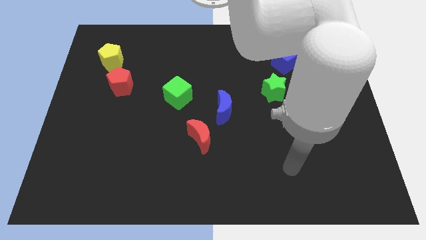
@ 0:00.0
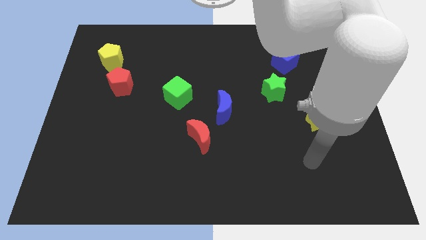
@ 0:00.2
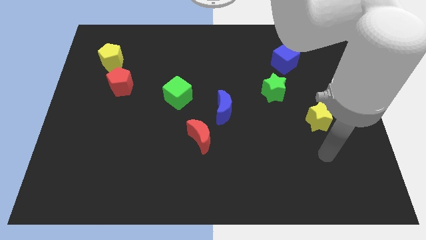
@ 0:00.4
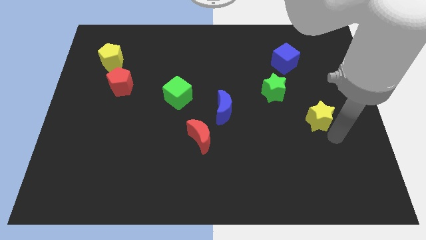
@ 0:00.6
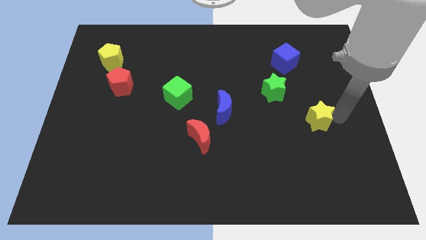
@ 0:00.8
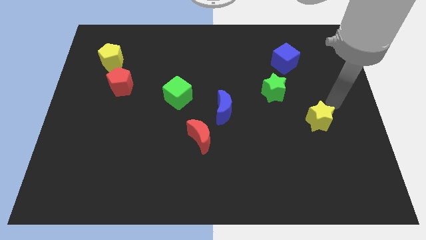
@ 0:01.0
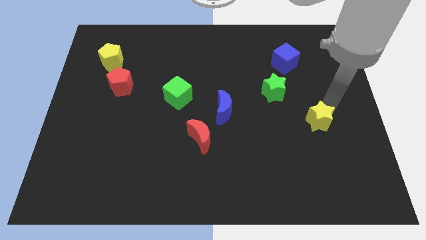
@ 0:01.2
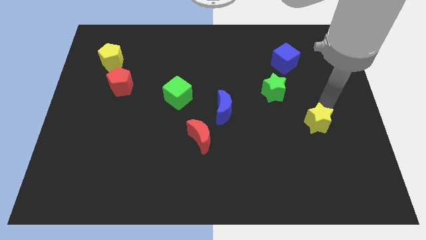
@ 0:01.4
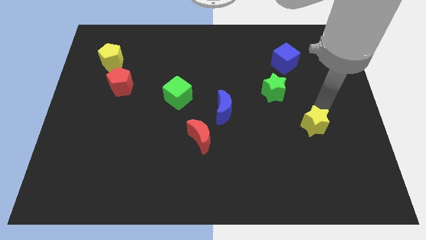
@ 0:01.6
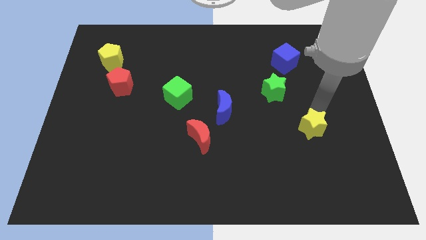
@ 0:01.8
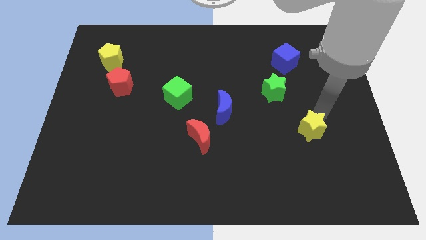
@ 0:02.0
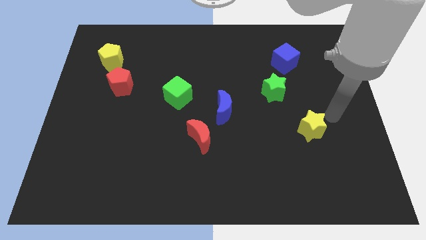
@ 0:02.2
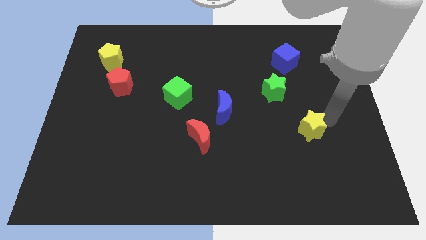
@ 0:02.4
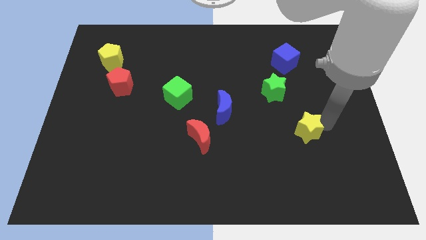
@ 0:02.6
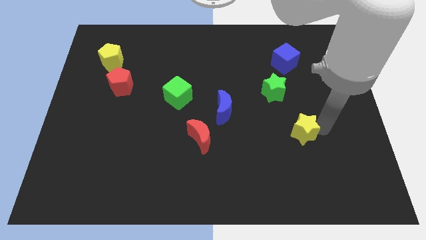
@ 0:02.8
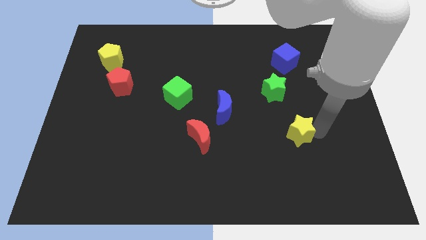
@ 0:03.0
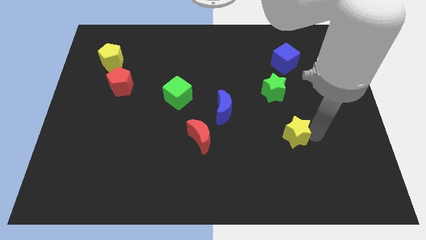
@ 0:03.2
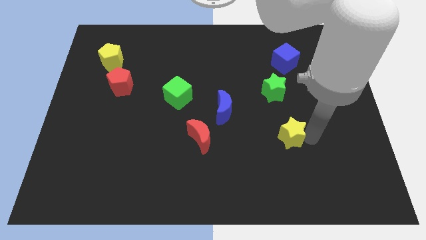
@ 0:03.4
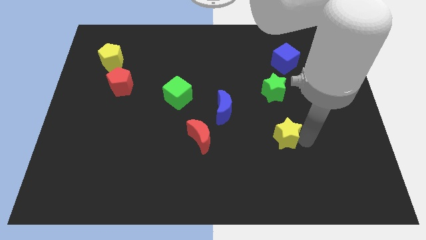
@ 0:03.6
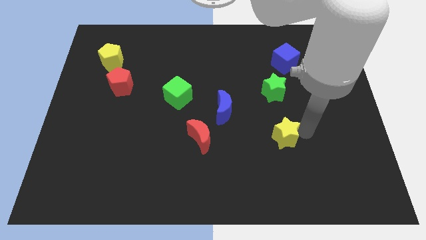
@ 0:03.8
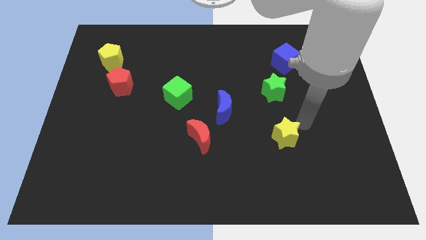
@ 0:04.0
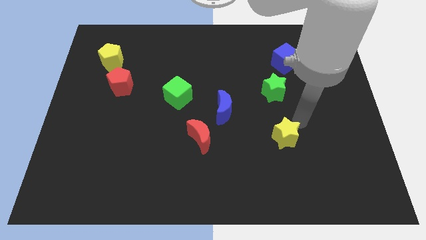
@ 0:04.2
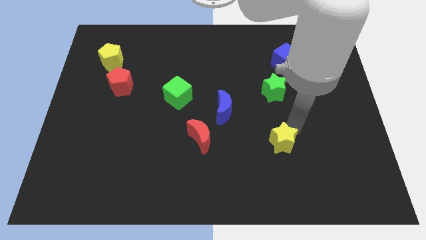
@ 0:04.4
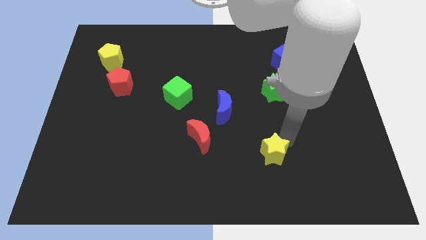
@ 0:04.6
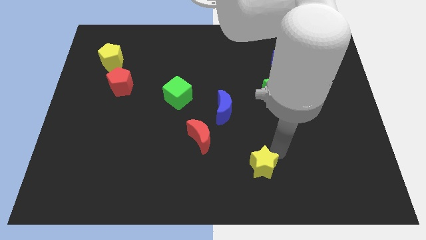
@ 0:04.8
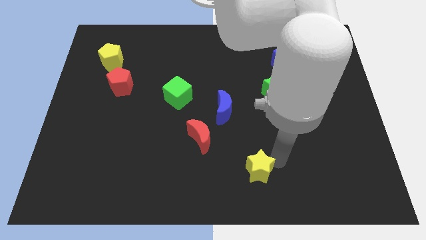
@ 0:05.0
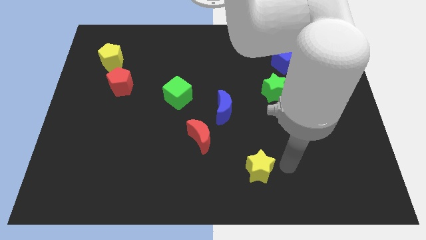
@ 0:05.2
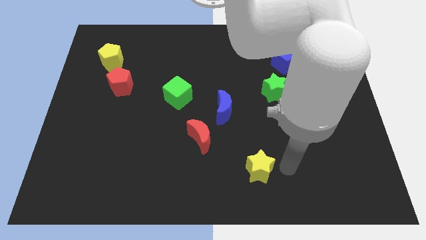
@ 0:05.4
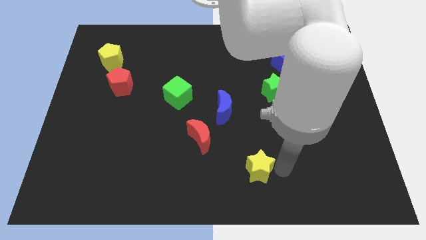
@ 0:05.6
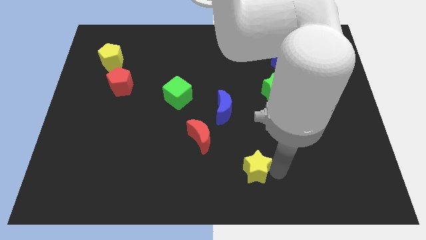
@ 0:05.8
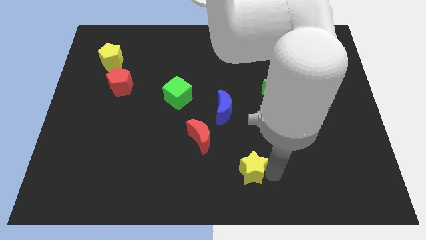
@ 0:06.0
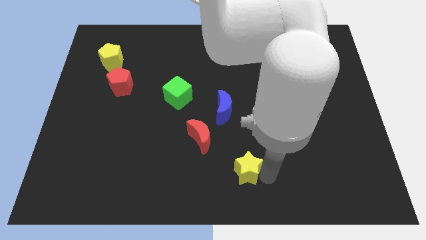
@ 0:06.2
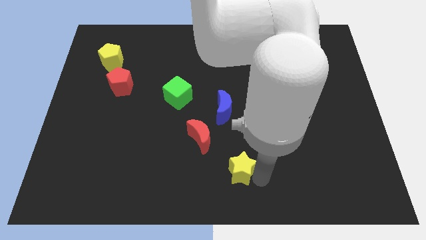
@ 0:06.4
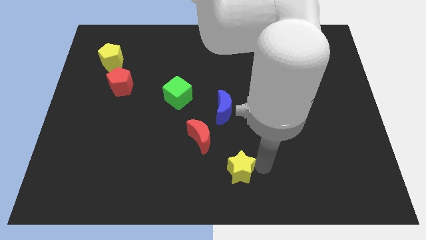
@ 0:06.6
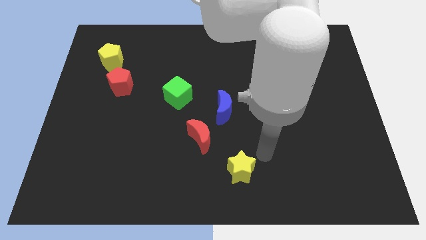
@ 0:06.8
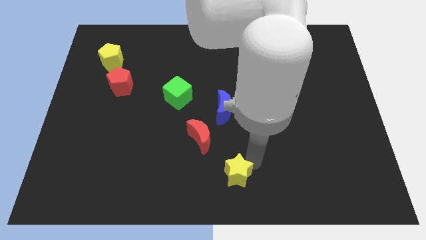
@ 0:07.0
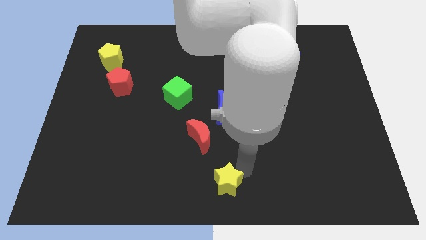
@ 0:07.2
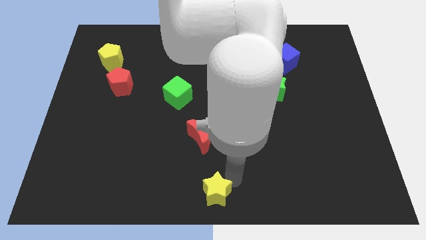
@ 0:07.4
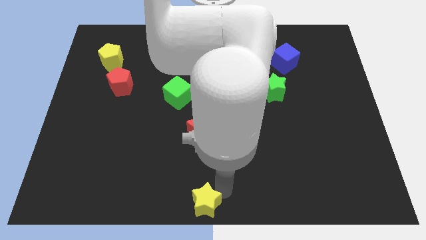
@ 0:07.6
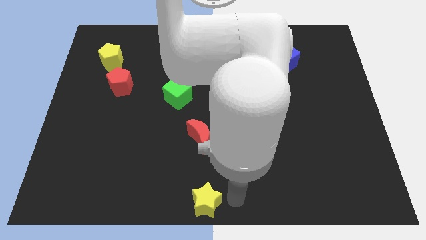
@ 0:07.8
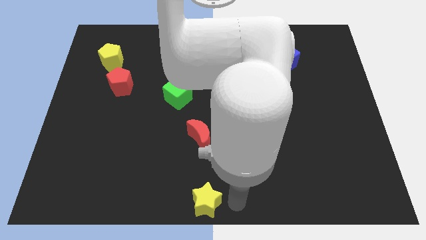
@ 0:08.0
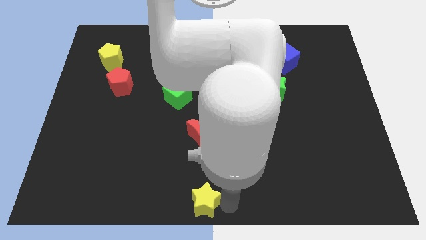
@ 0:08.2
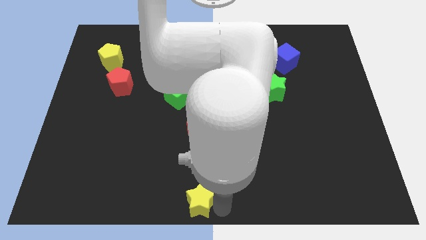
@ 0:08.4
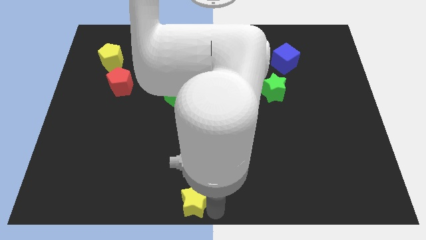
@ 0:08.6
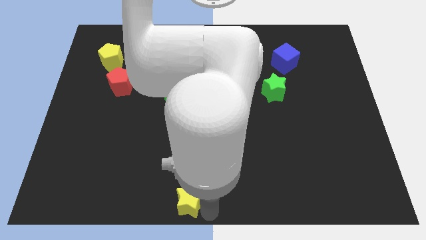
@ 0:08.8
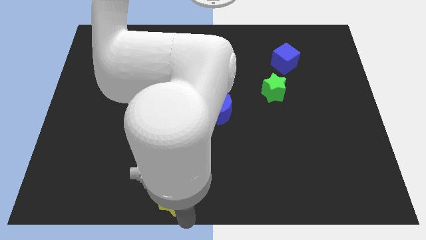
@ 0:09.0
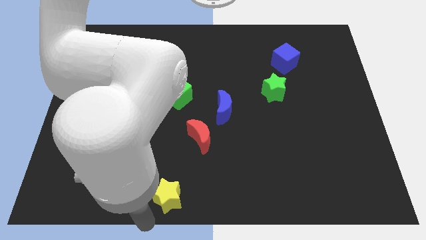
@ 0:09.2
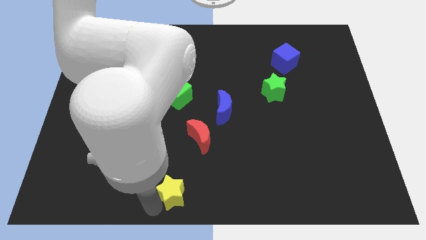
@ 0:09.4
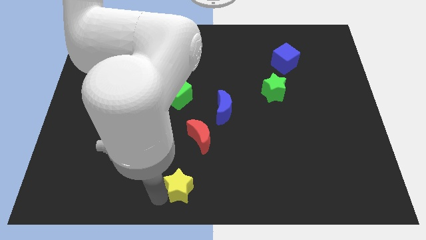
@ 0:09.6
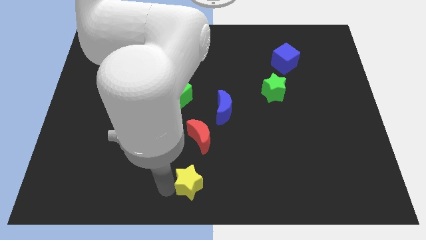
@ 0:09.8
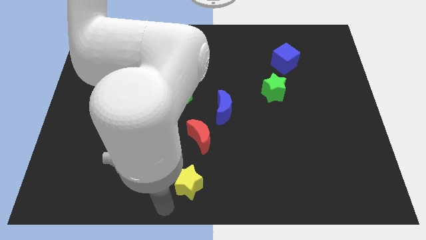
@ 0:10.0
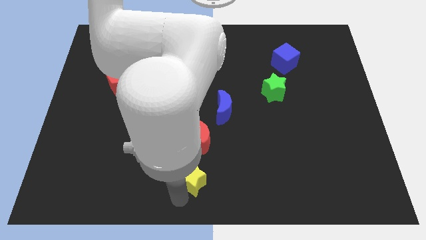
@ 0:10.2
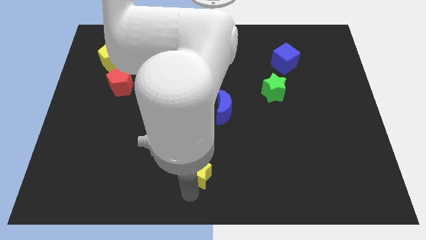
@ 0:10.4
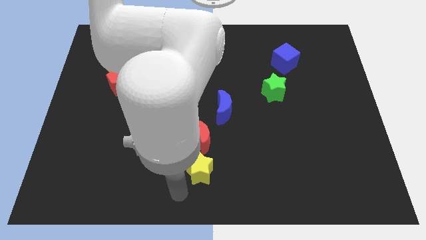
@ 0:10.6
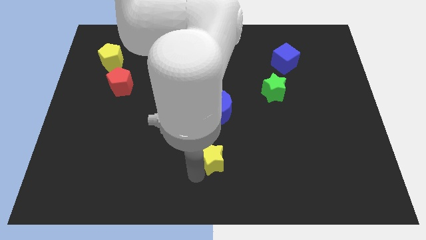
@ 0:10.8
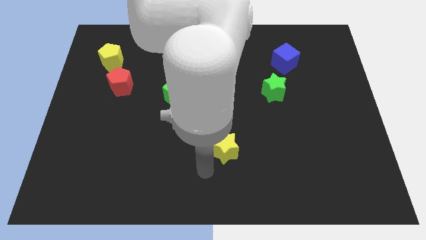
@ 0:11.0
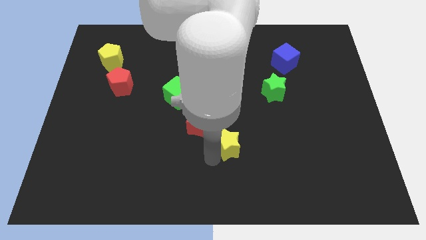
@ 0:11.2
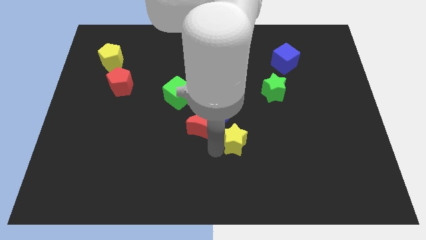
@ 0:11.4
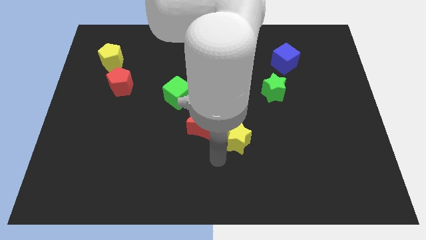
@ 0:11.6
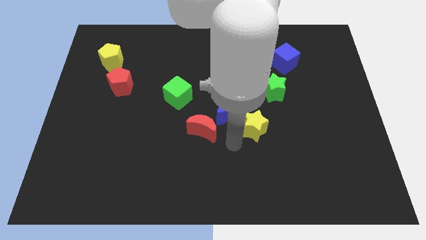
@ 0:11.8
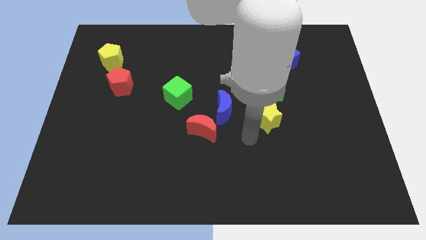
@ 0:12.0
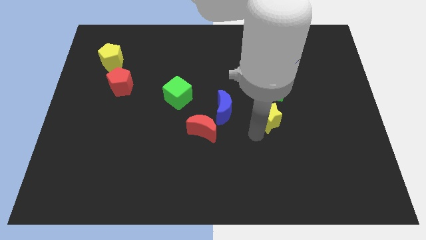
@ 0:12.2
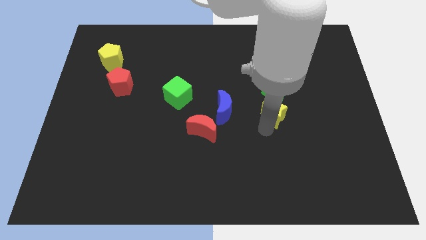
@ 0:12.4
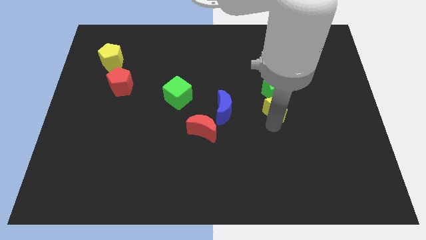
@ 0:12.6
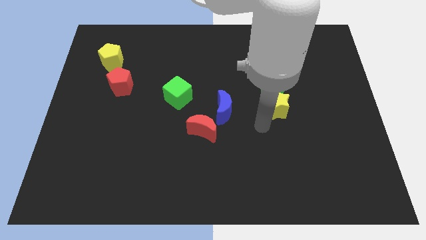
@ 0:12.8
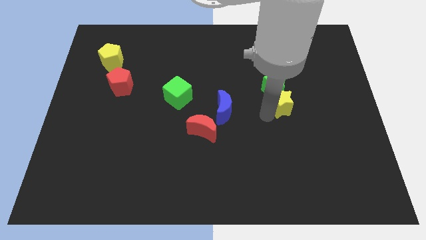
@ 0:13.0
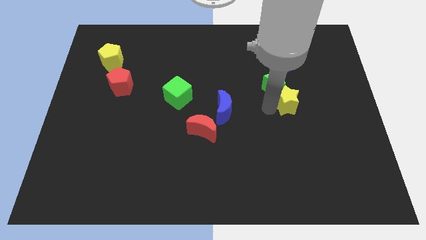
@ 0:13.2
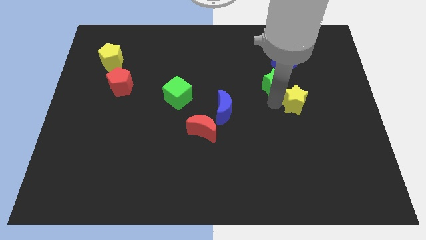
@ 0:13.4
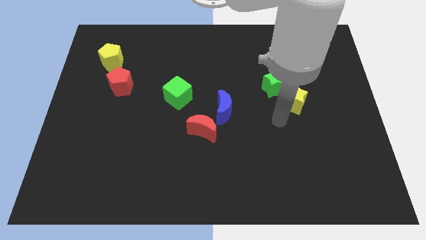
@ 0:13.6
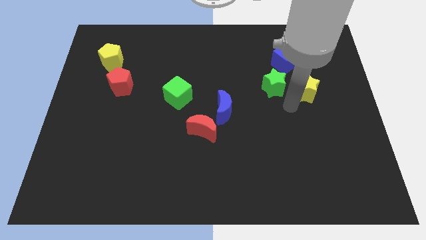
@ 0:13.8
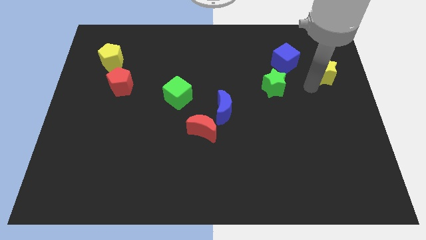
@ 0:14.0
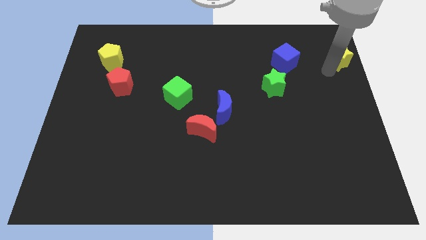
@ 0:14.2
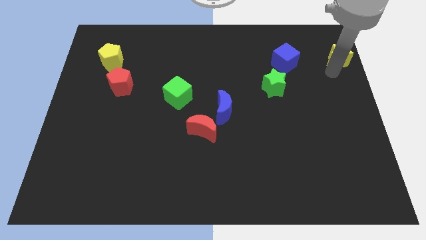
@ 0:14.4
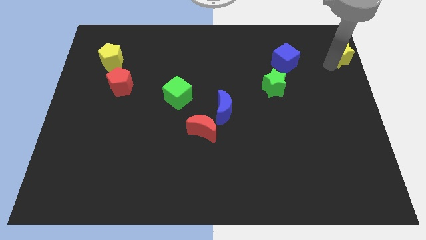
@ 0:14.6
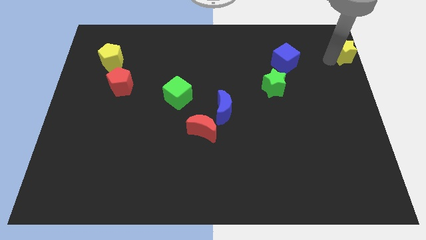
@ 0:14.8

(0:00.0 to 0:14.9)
push the yellow star to the top right

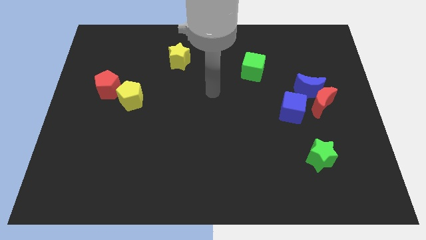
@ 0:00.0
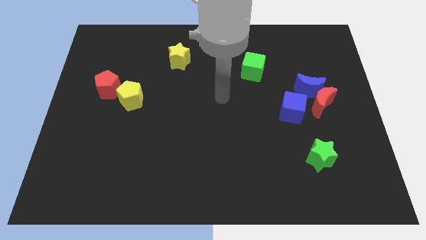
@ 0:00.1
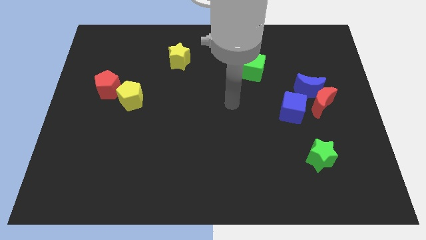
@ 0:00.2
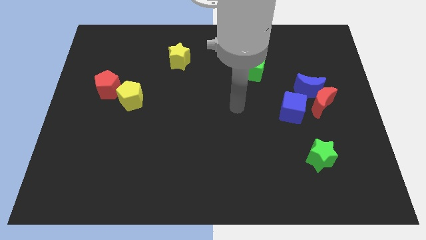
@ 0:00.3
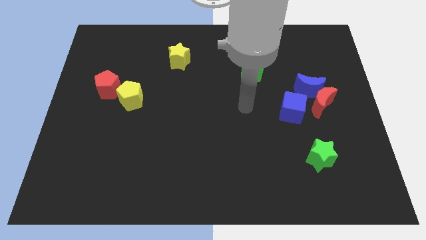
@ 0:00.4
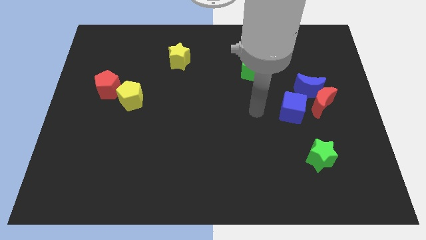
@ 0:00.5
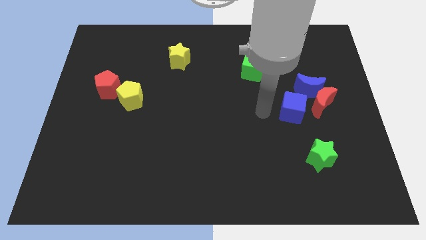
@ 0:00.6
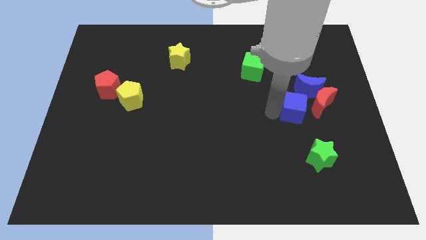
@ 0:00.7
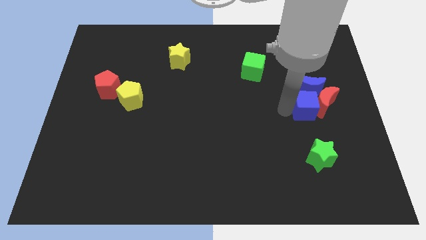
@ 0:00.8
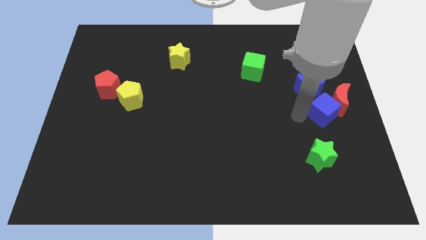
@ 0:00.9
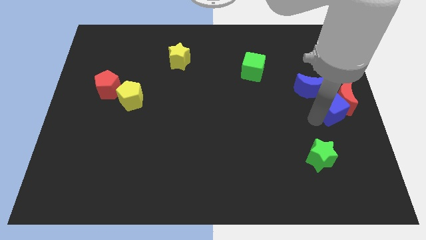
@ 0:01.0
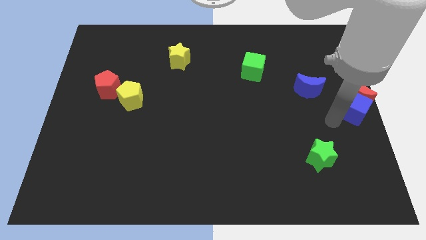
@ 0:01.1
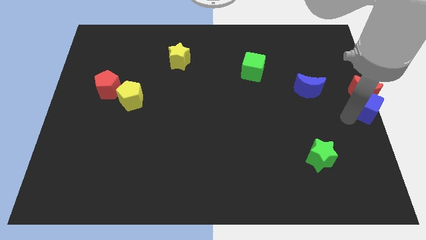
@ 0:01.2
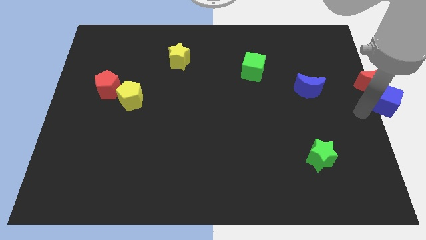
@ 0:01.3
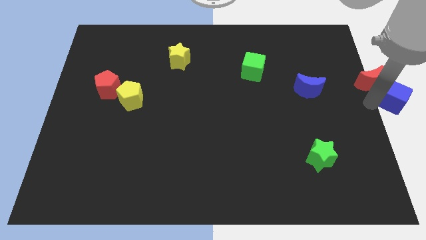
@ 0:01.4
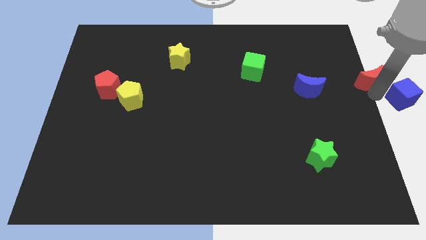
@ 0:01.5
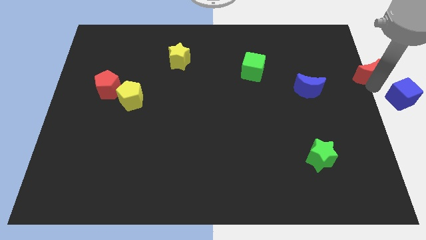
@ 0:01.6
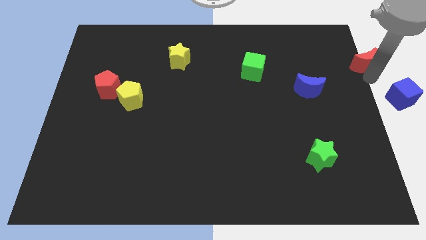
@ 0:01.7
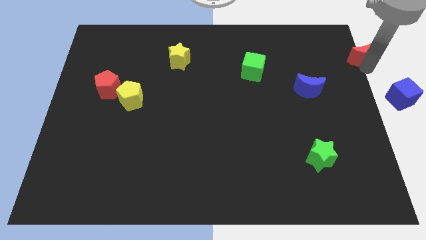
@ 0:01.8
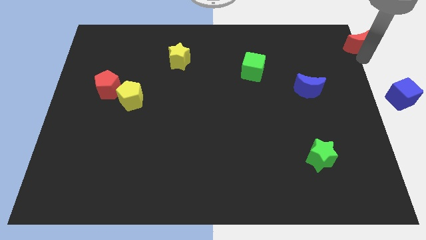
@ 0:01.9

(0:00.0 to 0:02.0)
push the red moon to the top right
